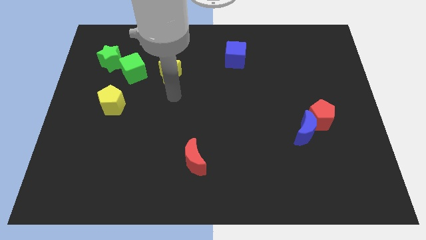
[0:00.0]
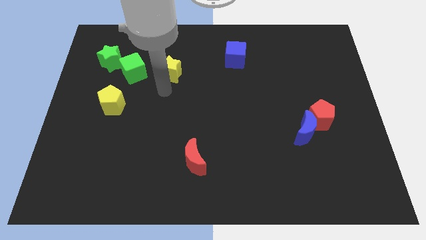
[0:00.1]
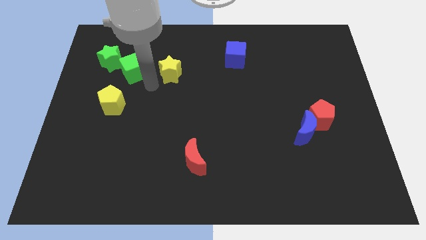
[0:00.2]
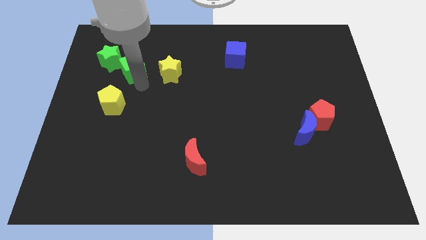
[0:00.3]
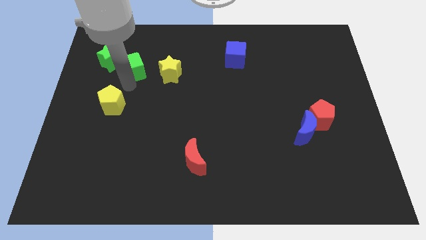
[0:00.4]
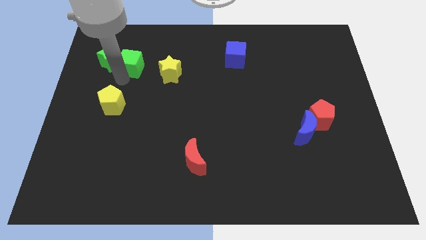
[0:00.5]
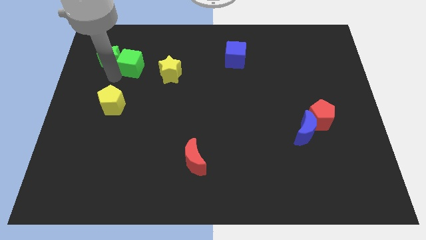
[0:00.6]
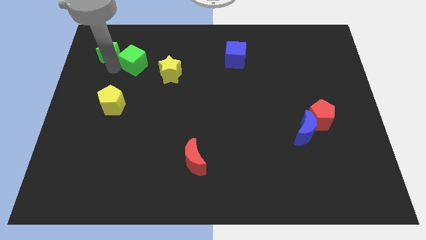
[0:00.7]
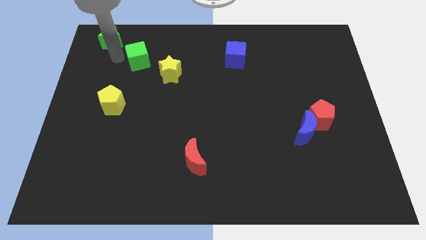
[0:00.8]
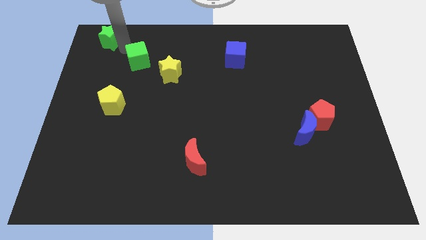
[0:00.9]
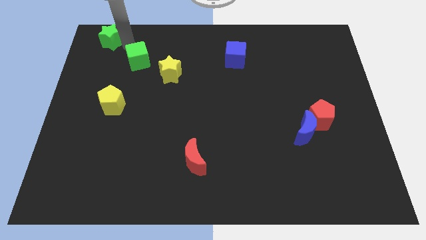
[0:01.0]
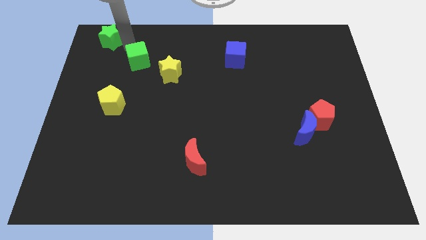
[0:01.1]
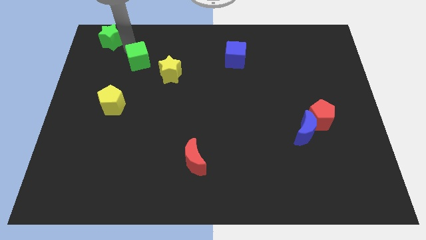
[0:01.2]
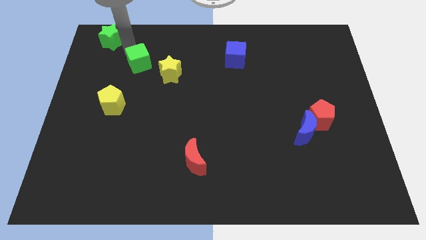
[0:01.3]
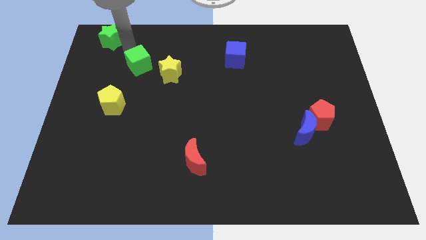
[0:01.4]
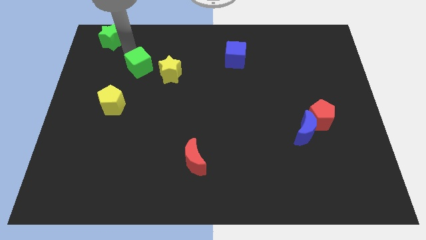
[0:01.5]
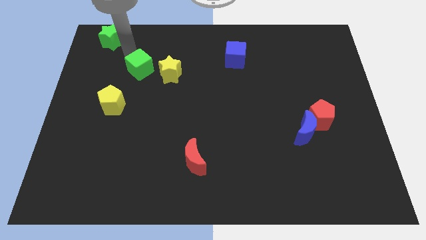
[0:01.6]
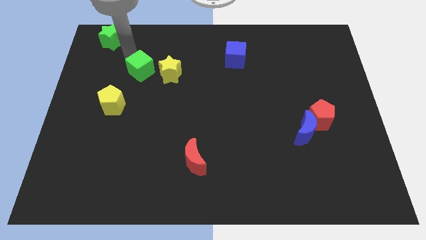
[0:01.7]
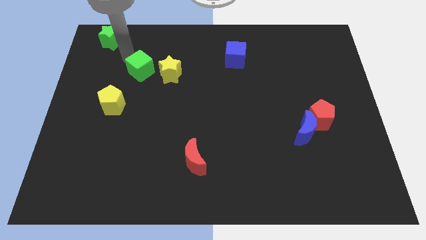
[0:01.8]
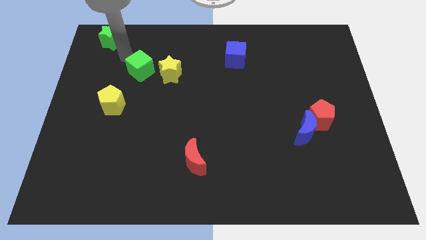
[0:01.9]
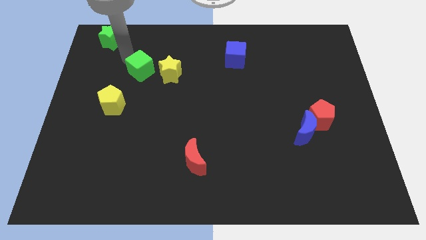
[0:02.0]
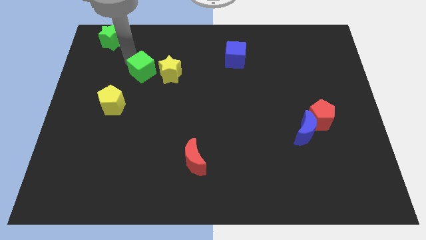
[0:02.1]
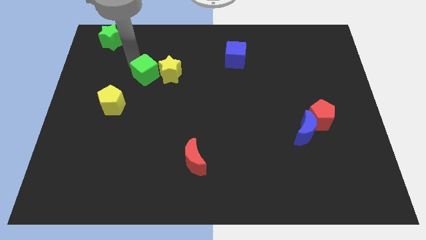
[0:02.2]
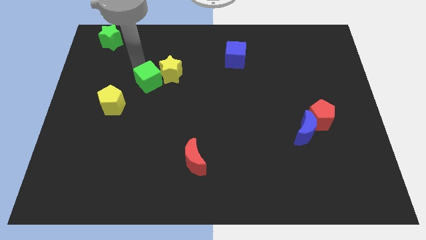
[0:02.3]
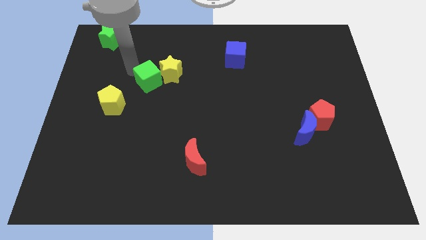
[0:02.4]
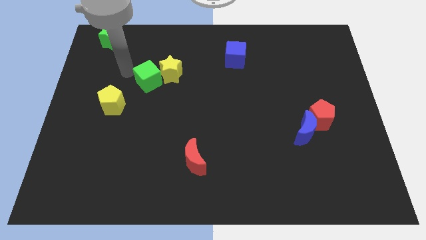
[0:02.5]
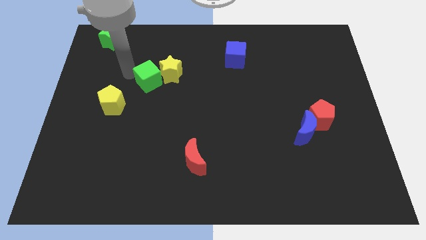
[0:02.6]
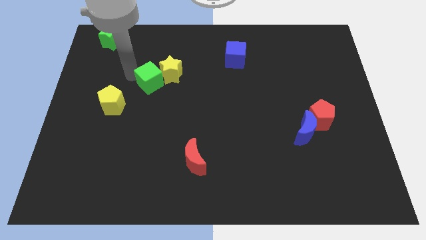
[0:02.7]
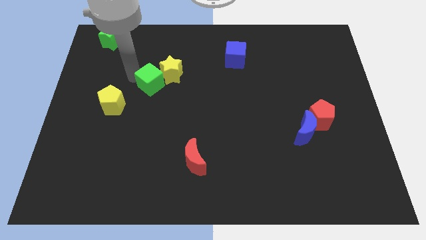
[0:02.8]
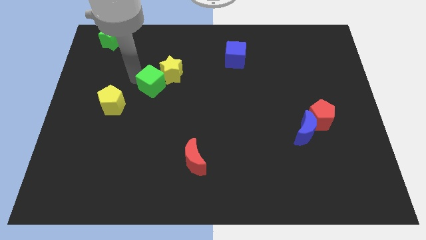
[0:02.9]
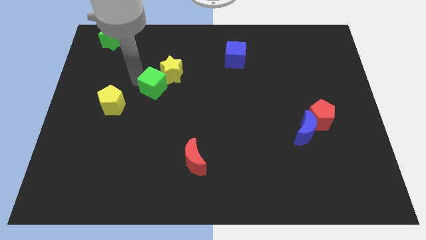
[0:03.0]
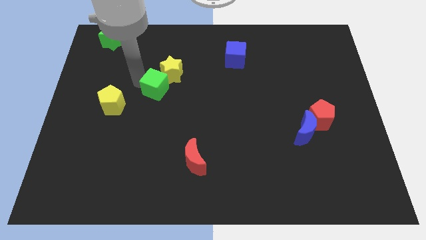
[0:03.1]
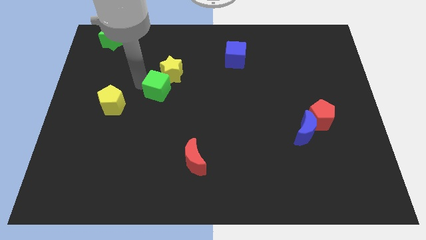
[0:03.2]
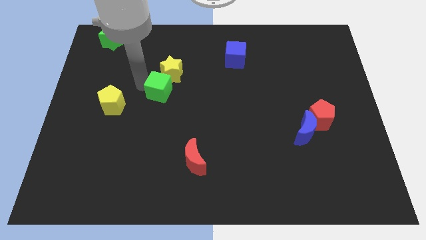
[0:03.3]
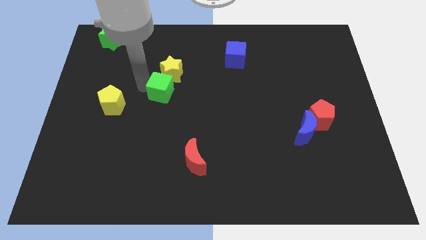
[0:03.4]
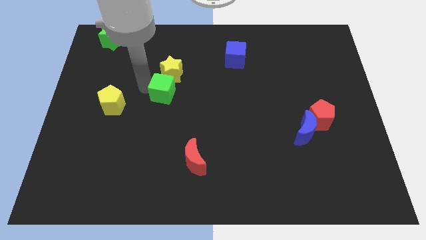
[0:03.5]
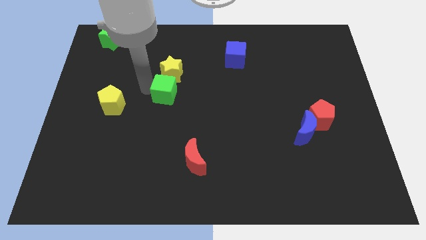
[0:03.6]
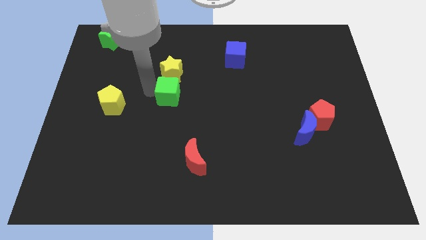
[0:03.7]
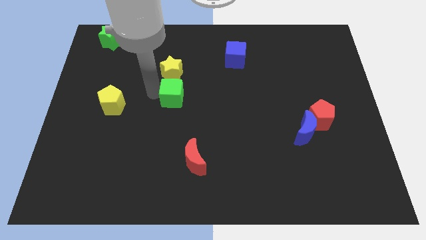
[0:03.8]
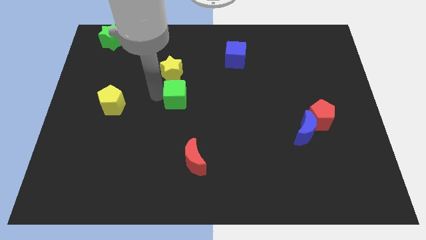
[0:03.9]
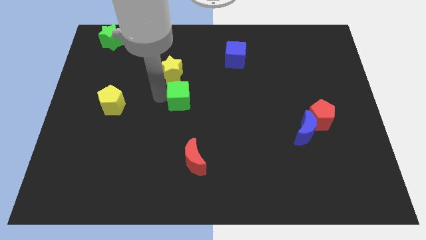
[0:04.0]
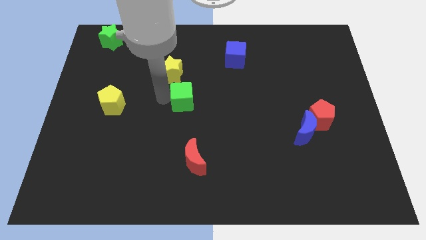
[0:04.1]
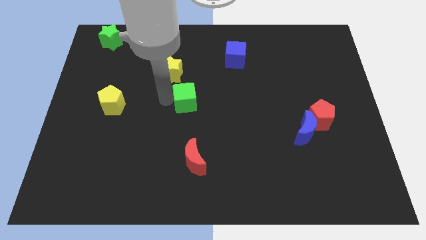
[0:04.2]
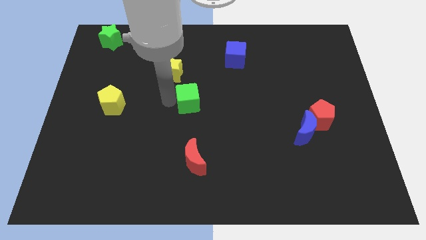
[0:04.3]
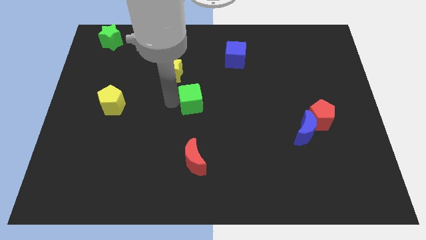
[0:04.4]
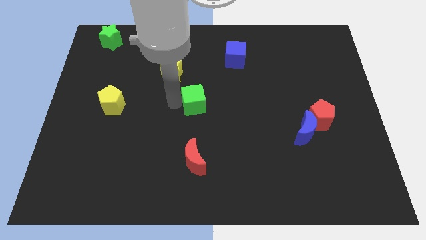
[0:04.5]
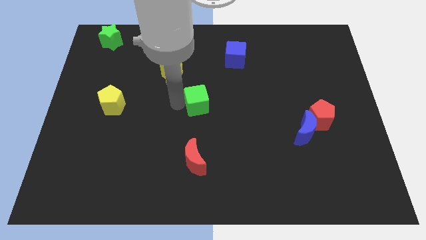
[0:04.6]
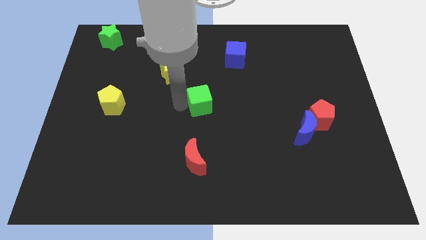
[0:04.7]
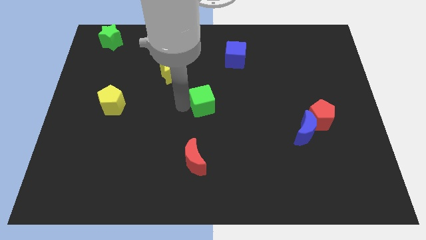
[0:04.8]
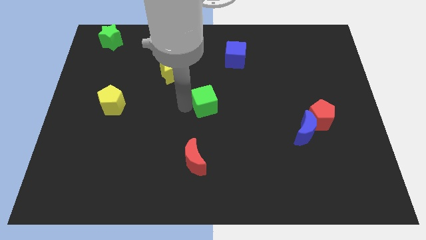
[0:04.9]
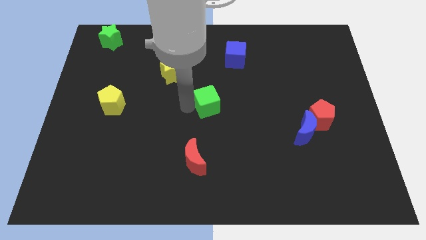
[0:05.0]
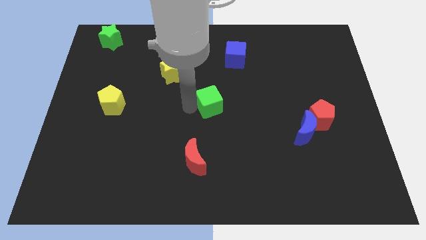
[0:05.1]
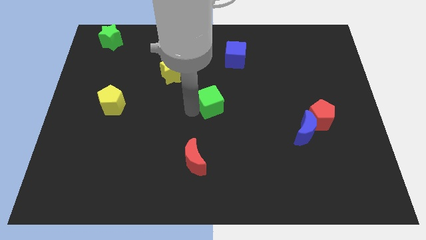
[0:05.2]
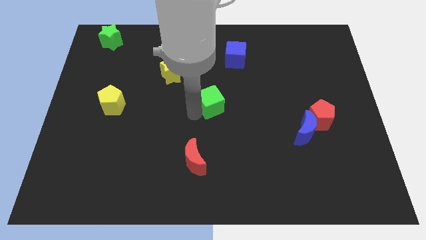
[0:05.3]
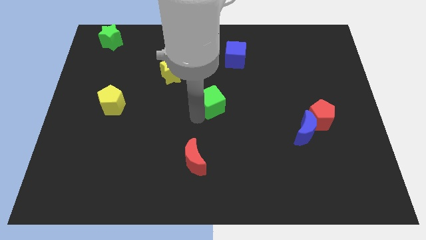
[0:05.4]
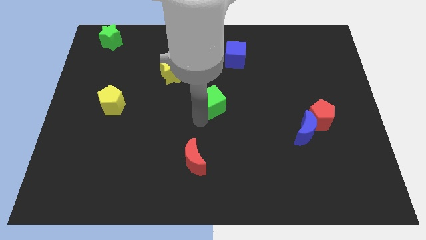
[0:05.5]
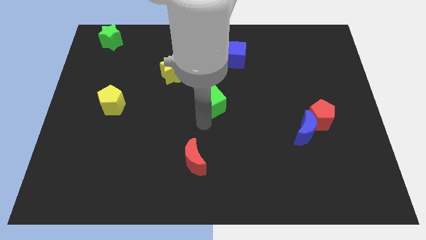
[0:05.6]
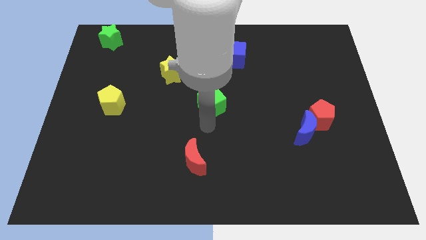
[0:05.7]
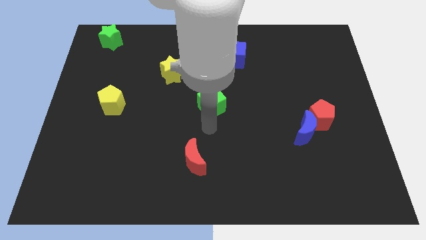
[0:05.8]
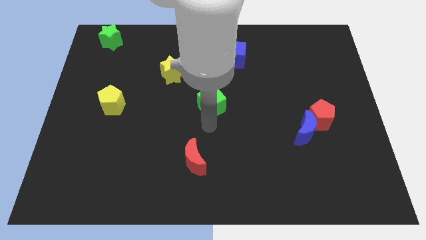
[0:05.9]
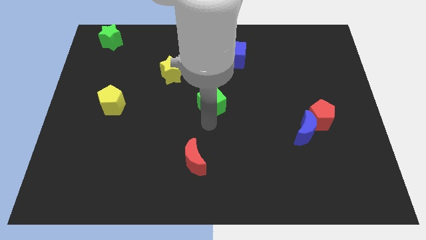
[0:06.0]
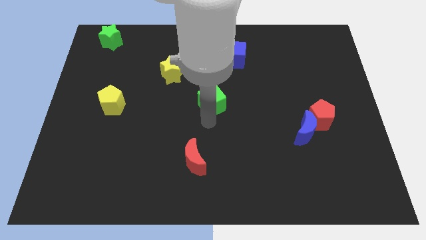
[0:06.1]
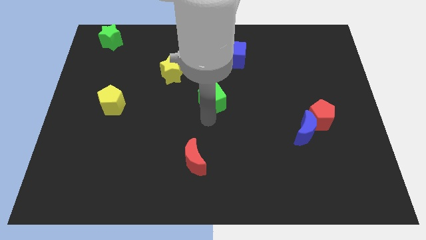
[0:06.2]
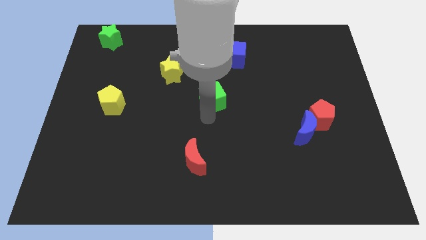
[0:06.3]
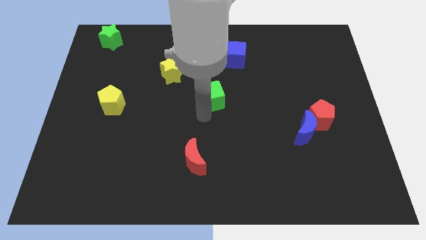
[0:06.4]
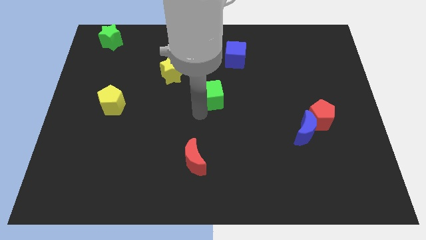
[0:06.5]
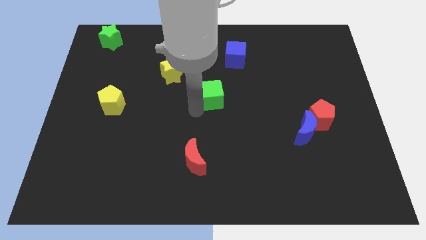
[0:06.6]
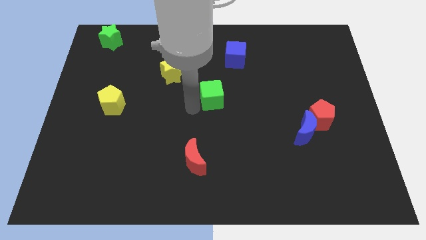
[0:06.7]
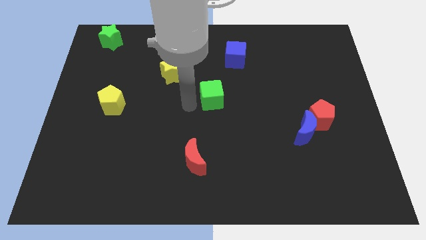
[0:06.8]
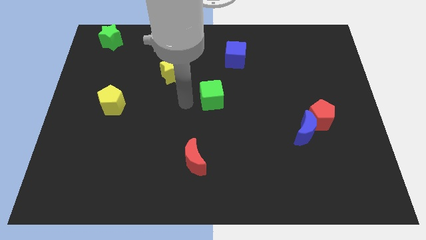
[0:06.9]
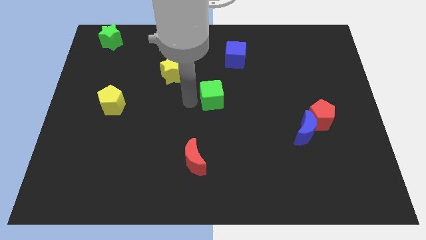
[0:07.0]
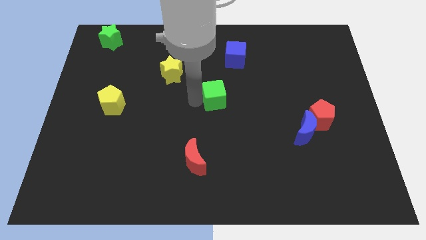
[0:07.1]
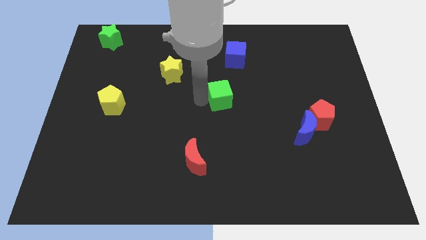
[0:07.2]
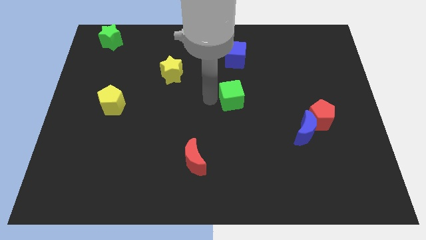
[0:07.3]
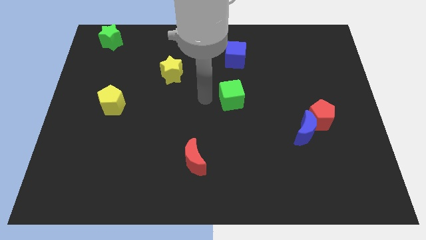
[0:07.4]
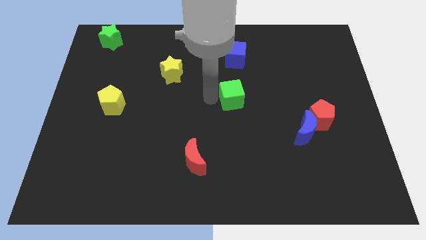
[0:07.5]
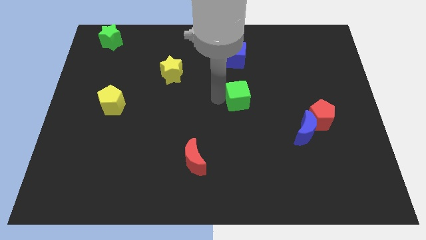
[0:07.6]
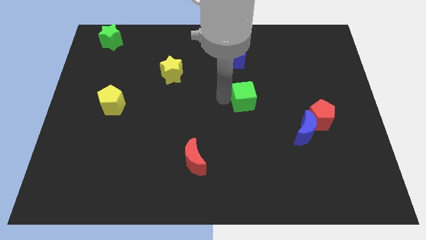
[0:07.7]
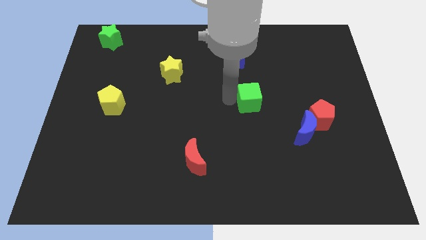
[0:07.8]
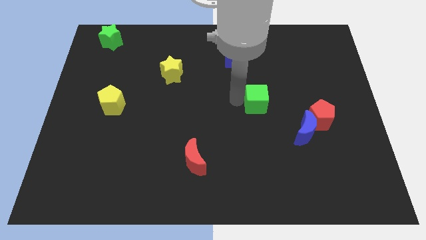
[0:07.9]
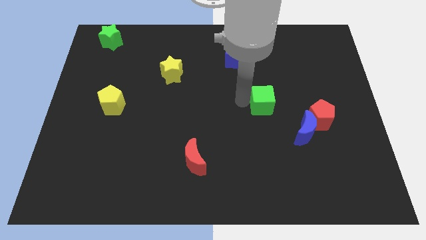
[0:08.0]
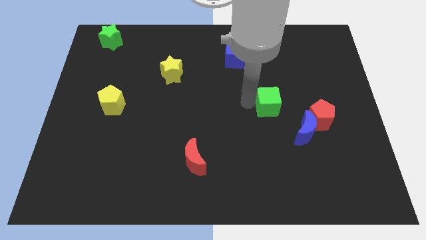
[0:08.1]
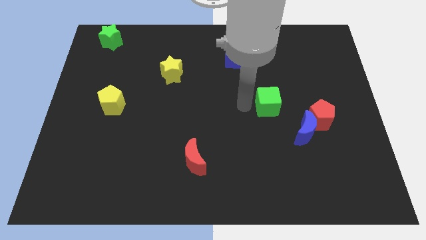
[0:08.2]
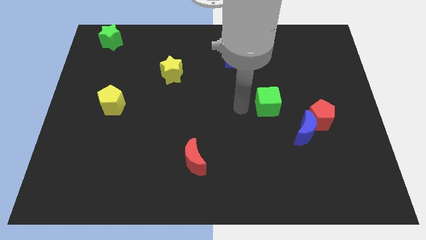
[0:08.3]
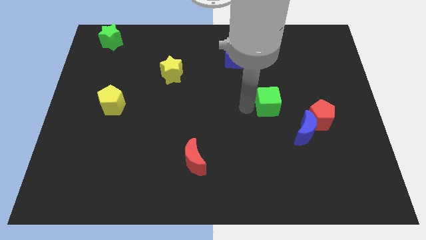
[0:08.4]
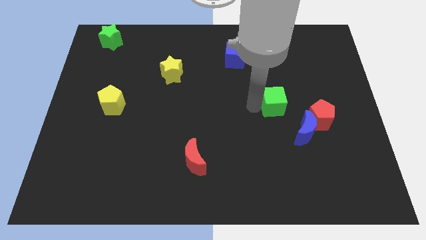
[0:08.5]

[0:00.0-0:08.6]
slide the green cube to the top left of the red pentagon
